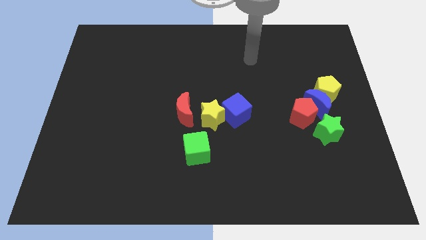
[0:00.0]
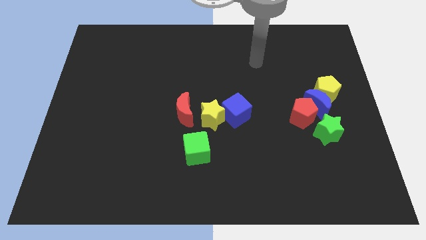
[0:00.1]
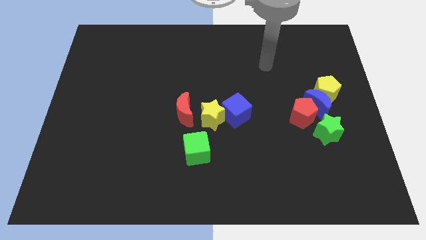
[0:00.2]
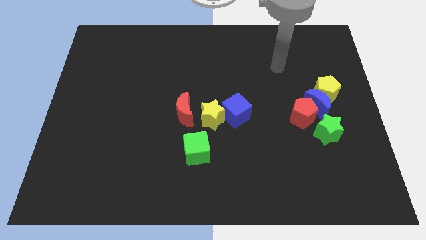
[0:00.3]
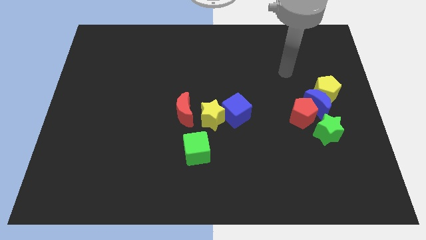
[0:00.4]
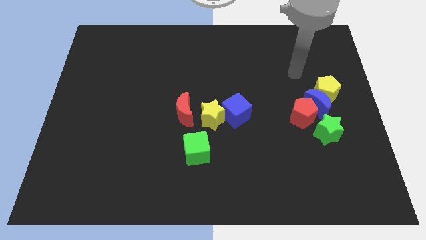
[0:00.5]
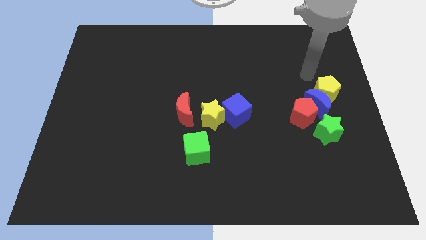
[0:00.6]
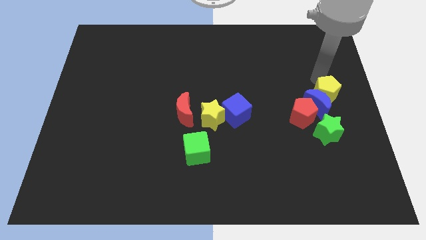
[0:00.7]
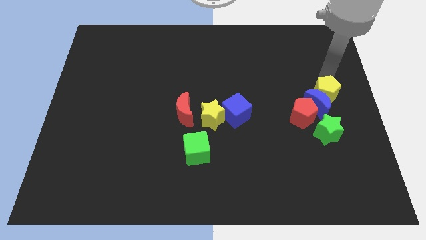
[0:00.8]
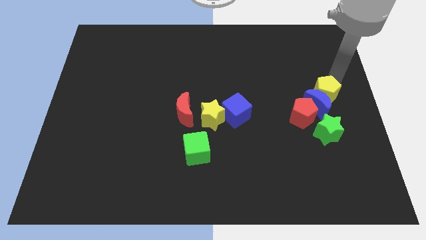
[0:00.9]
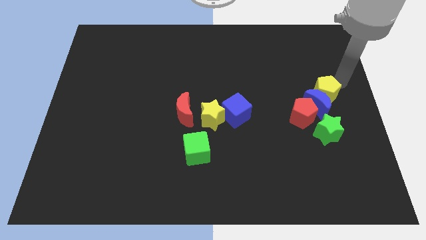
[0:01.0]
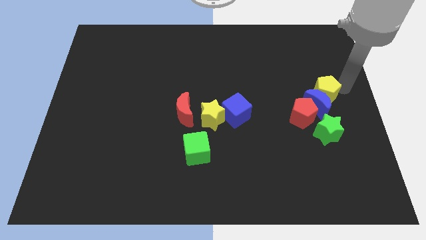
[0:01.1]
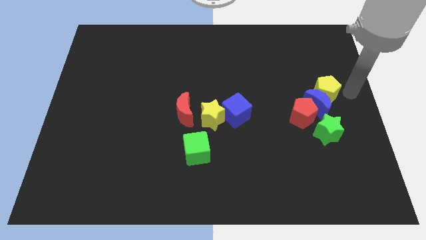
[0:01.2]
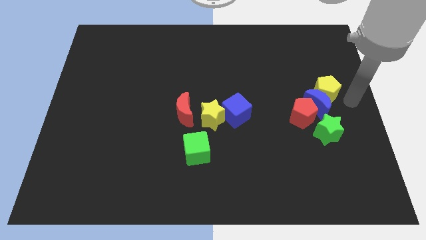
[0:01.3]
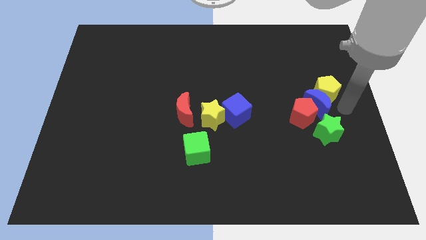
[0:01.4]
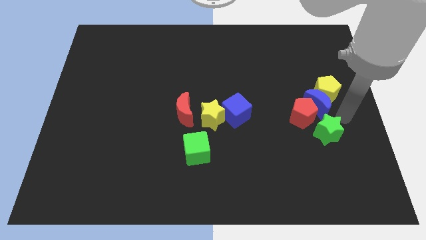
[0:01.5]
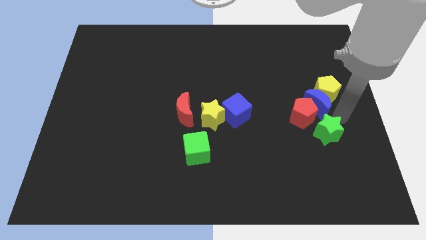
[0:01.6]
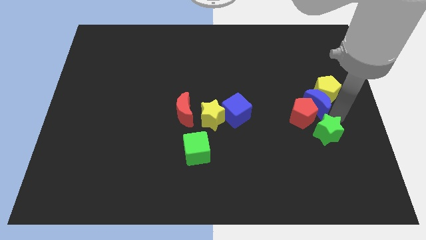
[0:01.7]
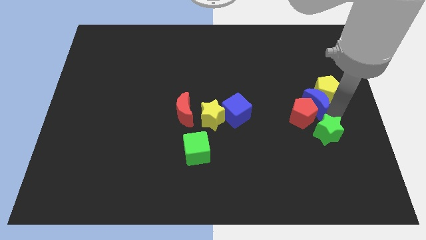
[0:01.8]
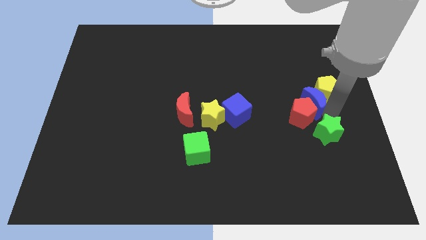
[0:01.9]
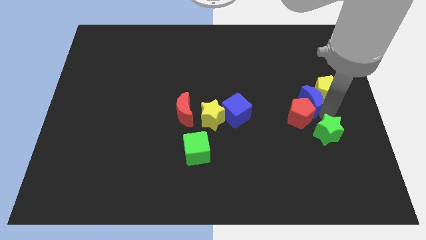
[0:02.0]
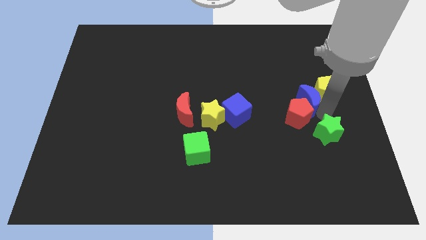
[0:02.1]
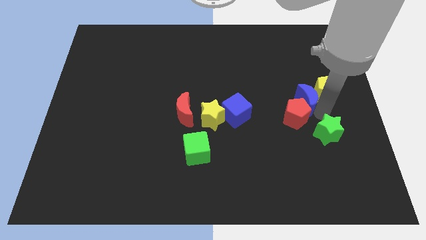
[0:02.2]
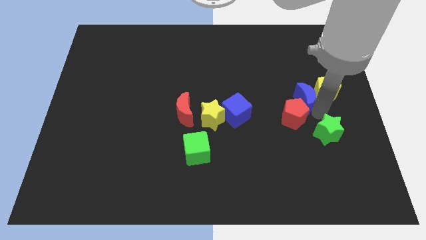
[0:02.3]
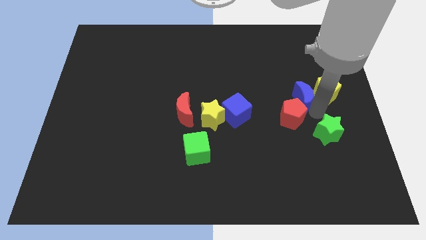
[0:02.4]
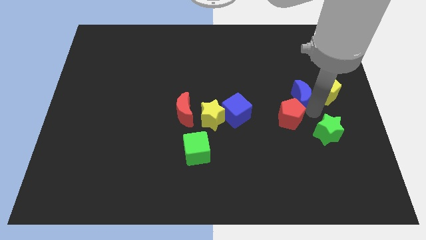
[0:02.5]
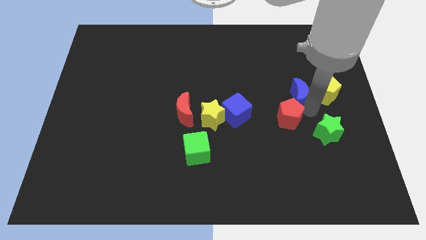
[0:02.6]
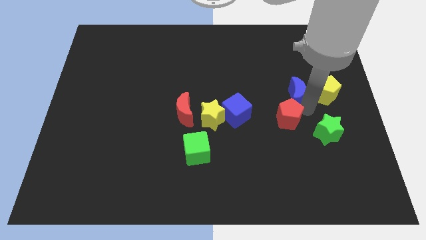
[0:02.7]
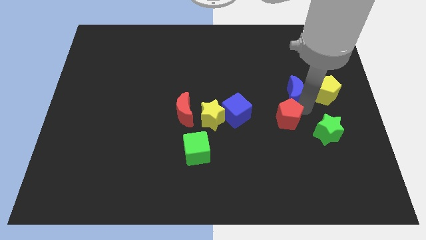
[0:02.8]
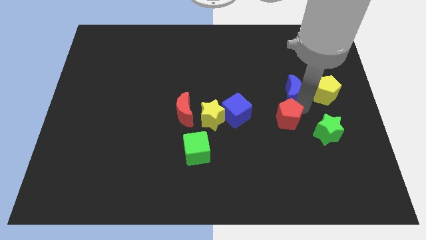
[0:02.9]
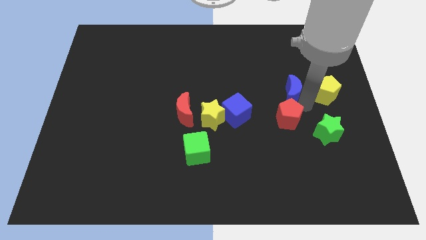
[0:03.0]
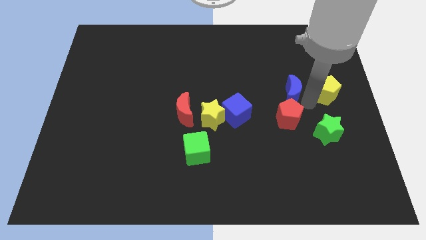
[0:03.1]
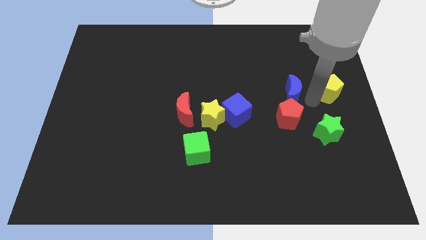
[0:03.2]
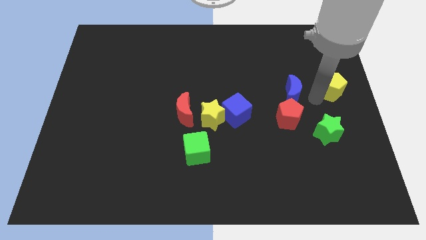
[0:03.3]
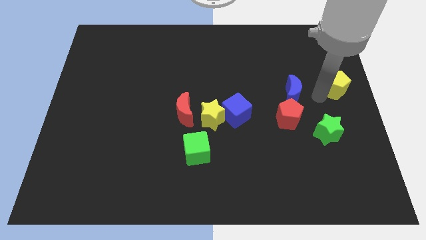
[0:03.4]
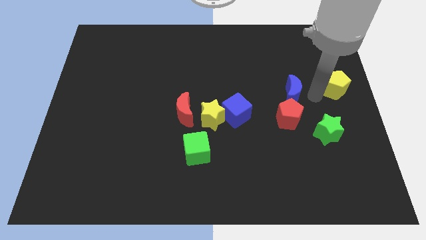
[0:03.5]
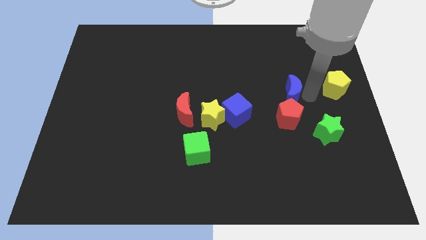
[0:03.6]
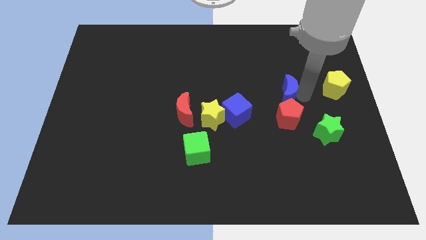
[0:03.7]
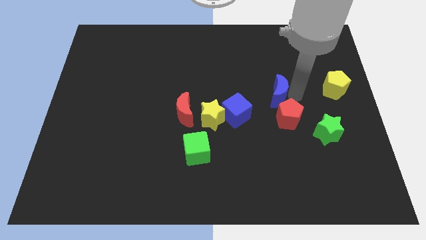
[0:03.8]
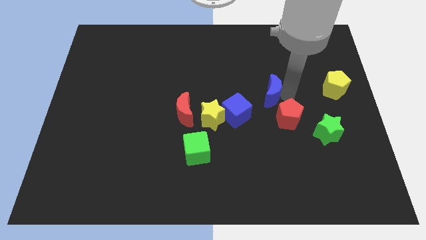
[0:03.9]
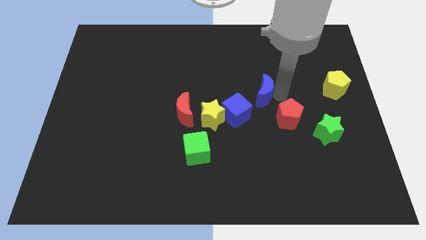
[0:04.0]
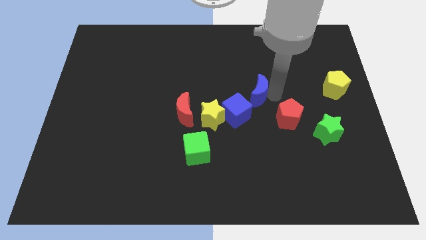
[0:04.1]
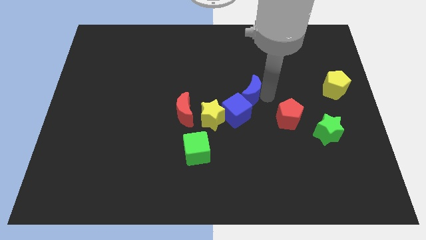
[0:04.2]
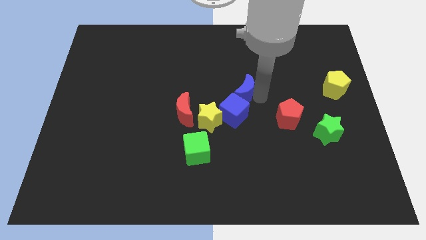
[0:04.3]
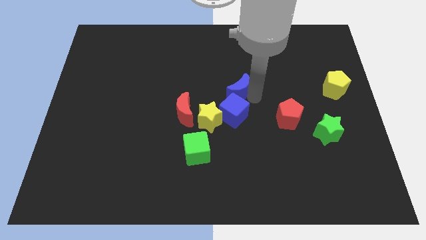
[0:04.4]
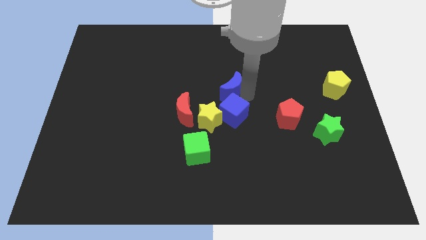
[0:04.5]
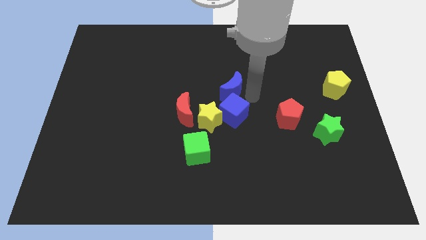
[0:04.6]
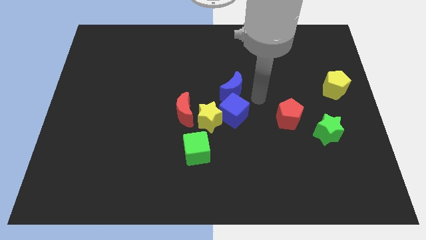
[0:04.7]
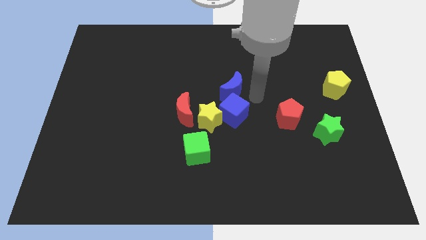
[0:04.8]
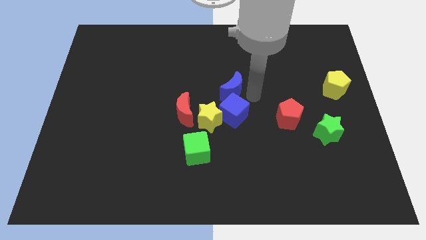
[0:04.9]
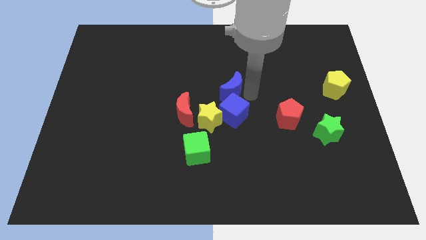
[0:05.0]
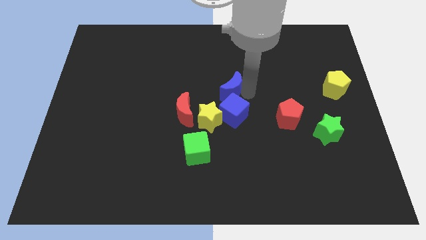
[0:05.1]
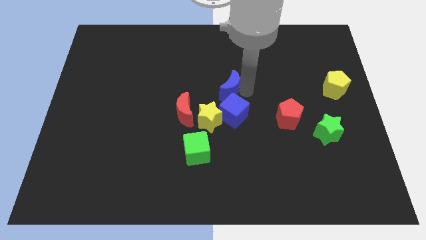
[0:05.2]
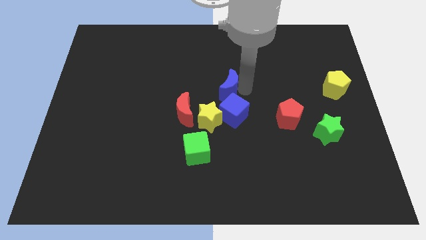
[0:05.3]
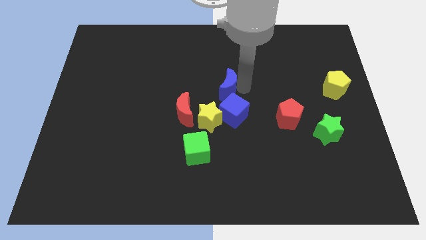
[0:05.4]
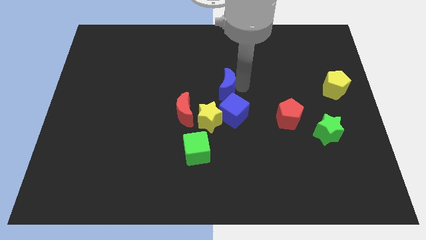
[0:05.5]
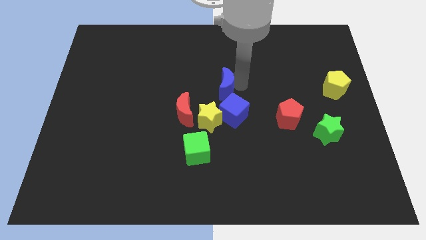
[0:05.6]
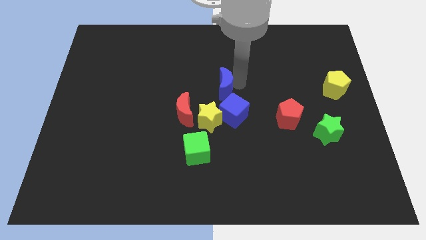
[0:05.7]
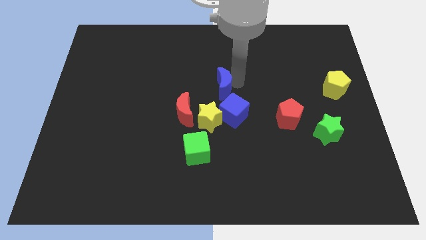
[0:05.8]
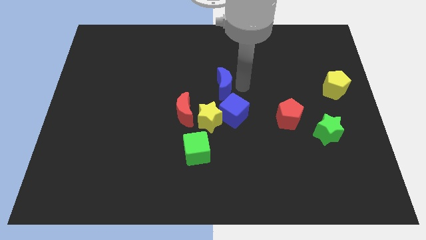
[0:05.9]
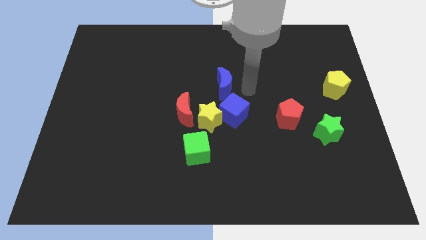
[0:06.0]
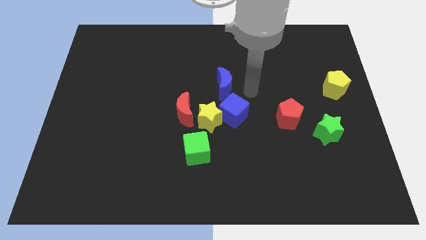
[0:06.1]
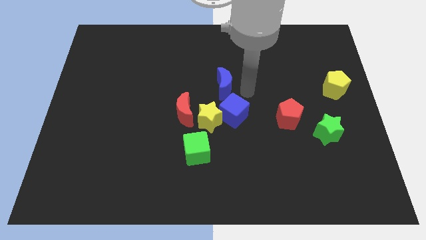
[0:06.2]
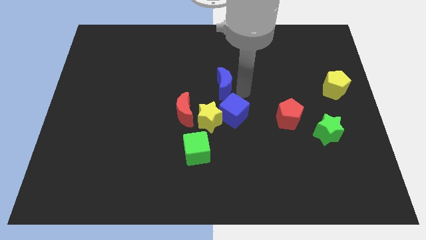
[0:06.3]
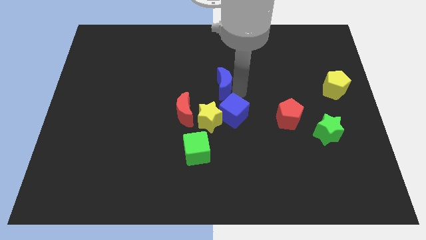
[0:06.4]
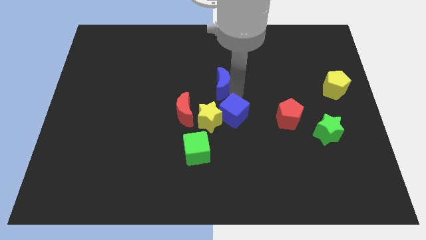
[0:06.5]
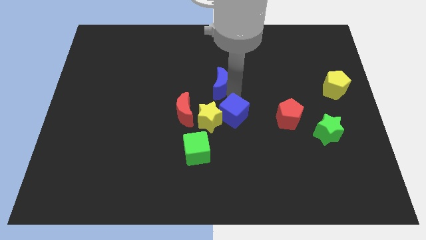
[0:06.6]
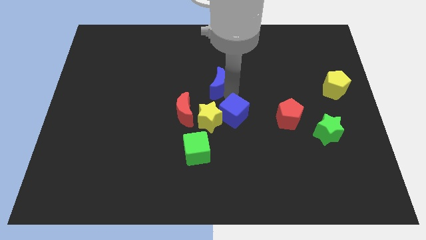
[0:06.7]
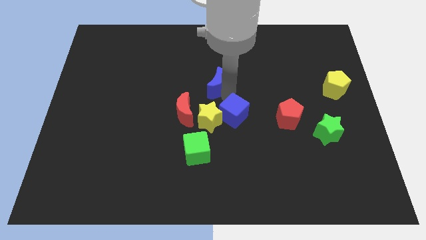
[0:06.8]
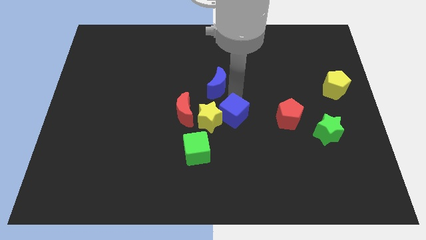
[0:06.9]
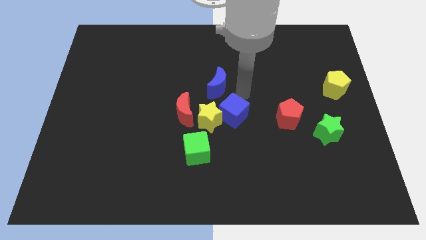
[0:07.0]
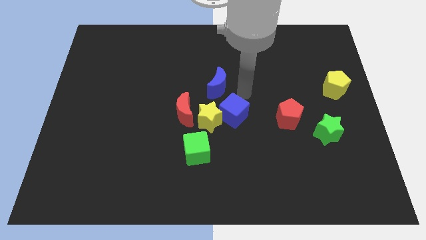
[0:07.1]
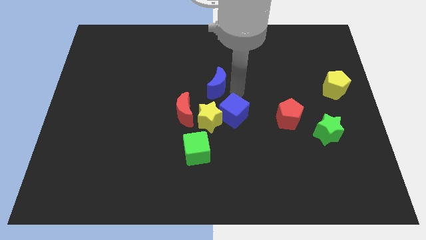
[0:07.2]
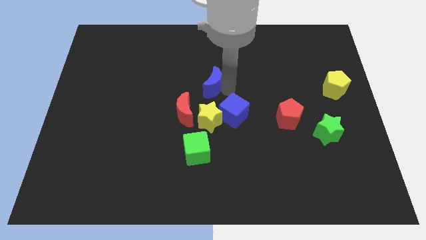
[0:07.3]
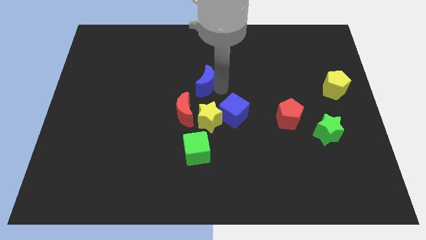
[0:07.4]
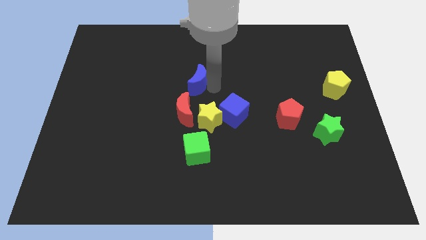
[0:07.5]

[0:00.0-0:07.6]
push the blue moon to the top side of the red moon

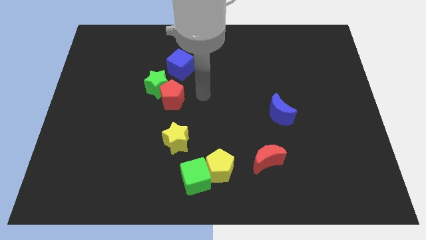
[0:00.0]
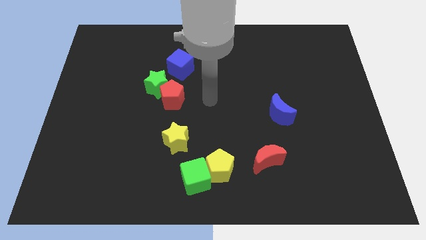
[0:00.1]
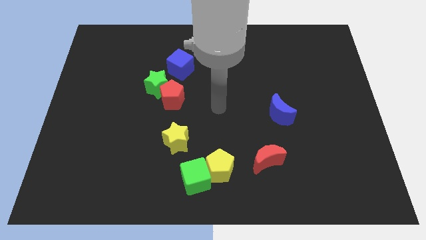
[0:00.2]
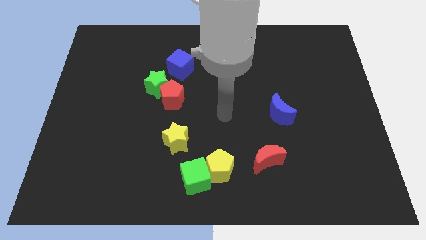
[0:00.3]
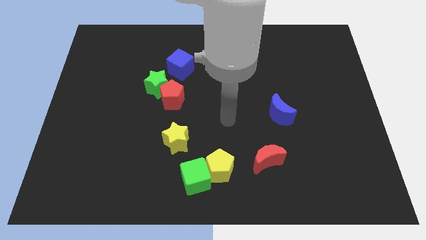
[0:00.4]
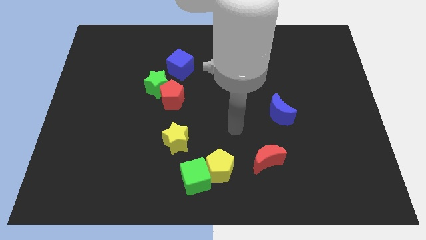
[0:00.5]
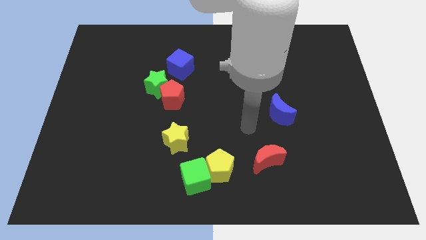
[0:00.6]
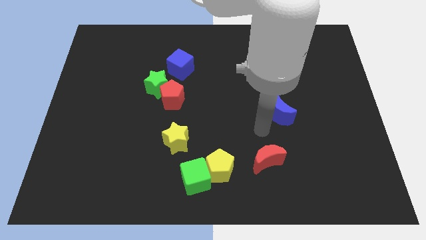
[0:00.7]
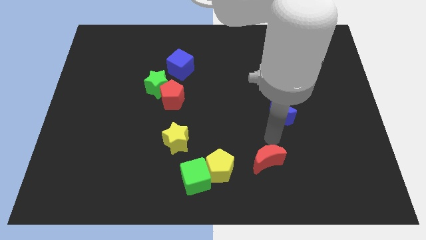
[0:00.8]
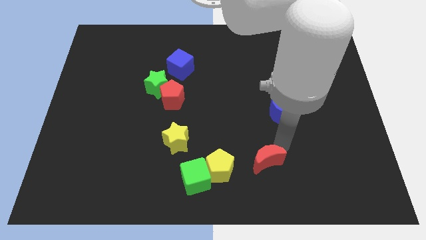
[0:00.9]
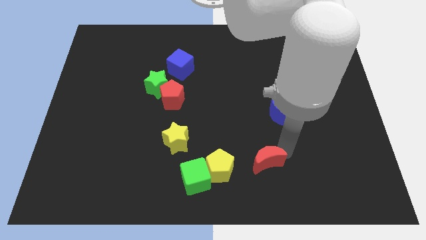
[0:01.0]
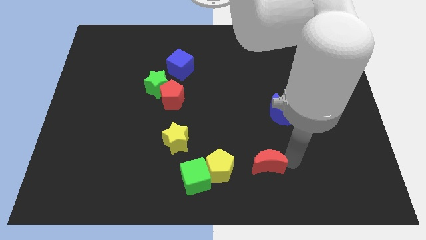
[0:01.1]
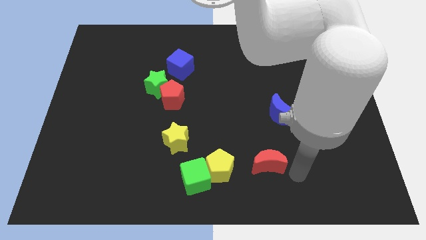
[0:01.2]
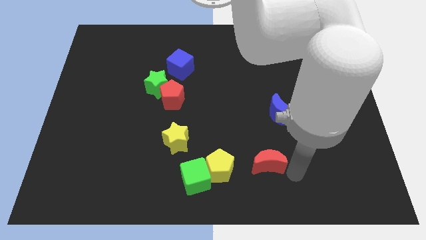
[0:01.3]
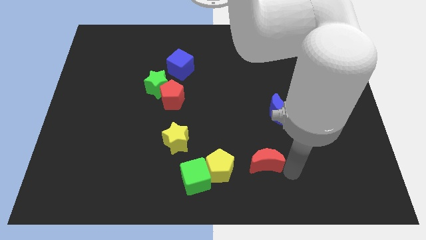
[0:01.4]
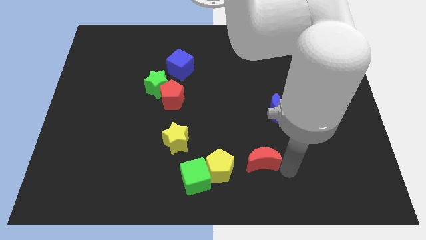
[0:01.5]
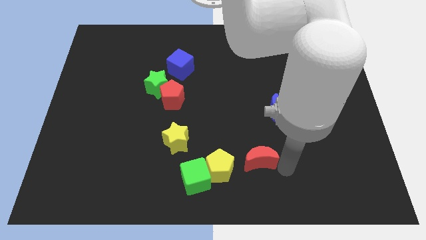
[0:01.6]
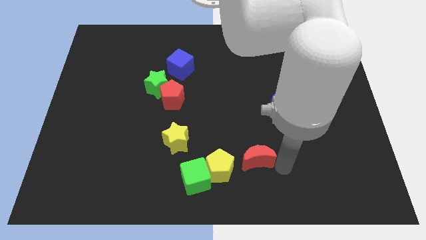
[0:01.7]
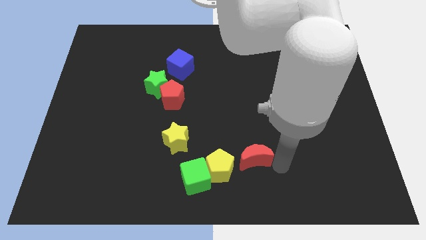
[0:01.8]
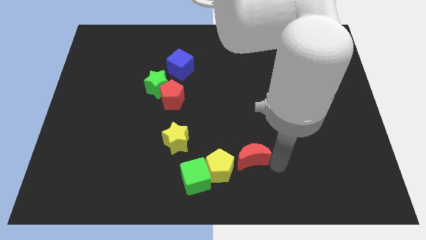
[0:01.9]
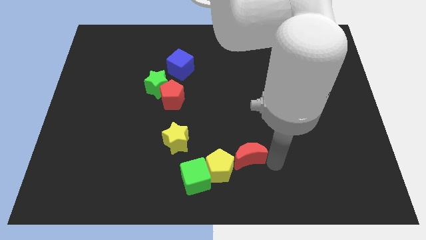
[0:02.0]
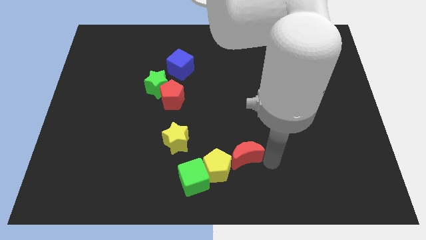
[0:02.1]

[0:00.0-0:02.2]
slide the red moon diagonally up and to the right of the green cube
